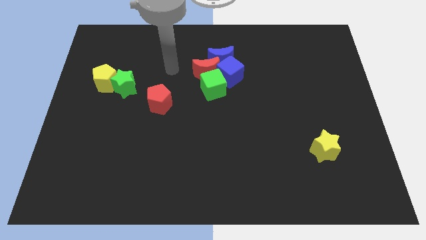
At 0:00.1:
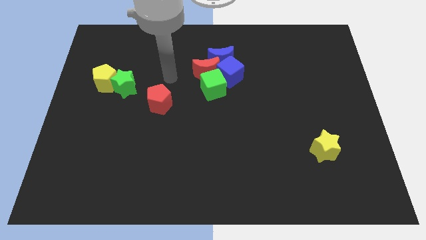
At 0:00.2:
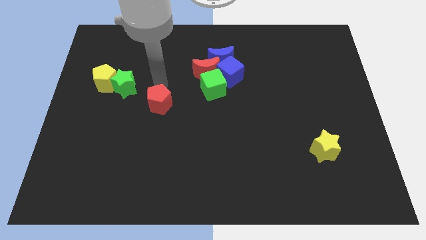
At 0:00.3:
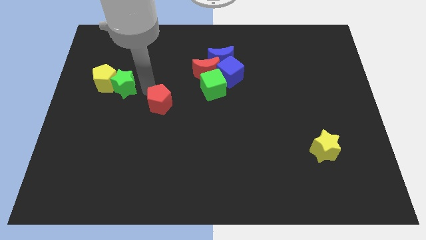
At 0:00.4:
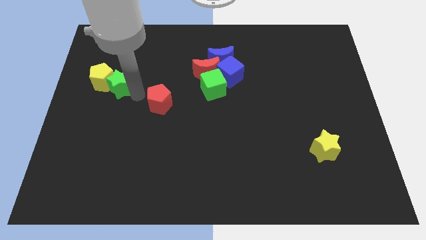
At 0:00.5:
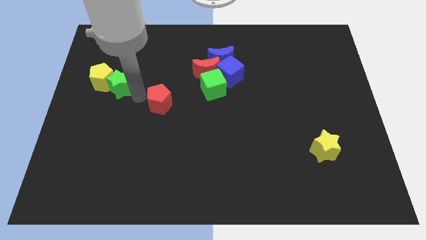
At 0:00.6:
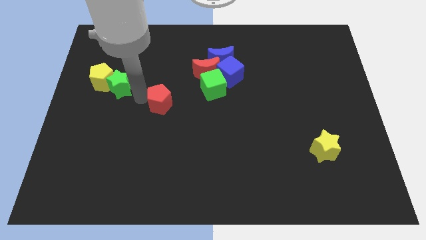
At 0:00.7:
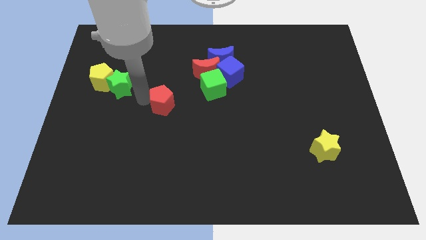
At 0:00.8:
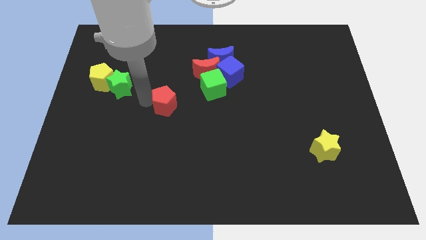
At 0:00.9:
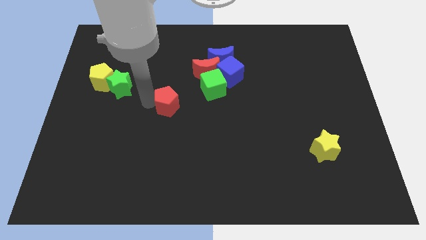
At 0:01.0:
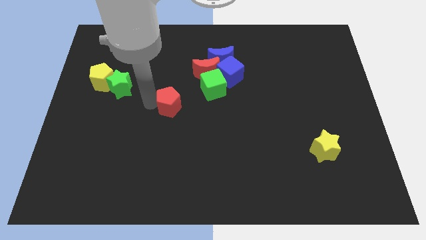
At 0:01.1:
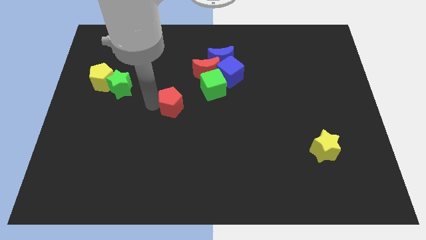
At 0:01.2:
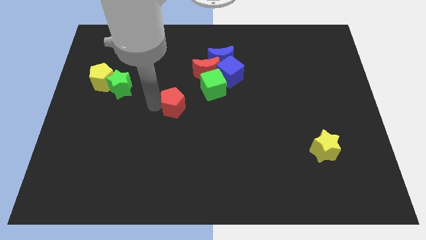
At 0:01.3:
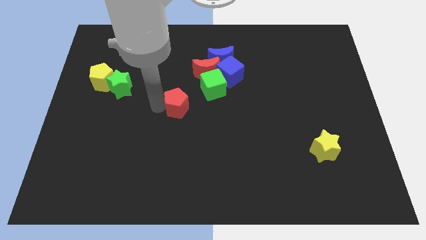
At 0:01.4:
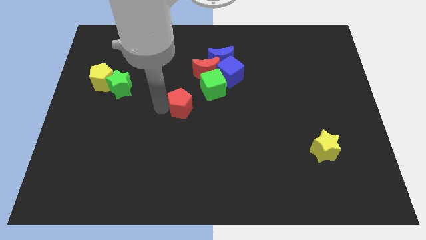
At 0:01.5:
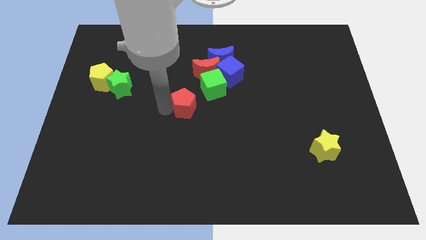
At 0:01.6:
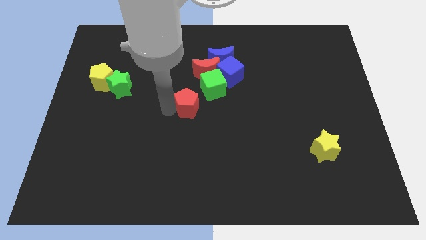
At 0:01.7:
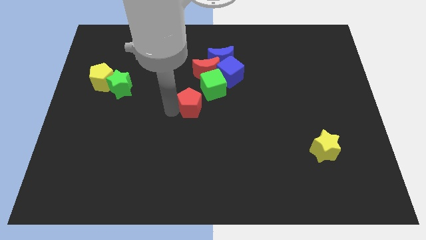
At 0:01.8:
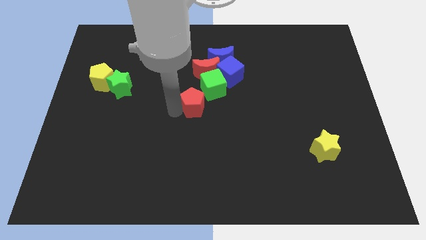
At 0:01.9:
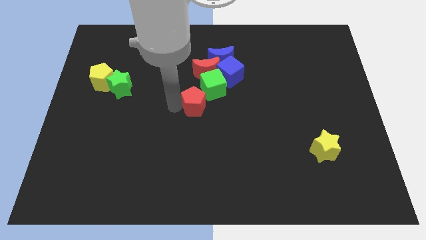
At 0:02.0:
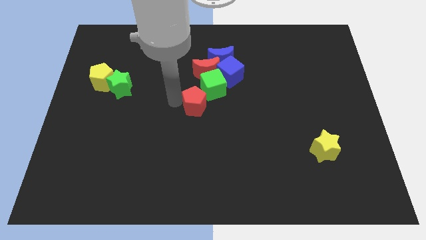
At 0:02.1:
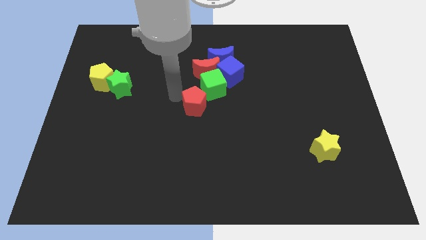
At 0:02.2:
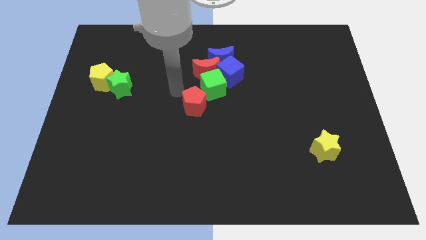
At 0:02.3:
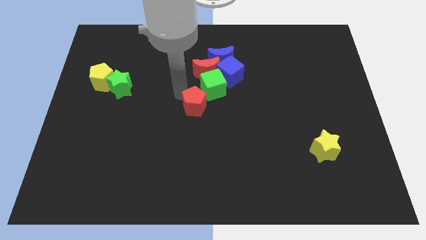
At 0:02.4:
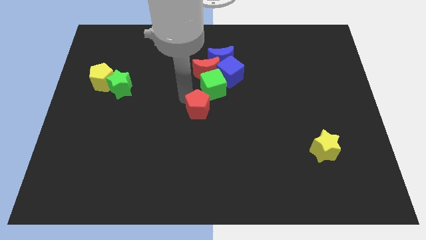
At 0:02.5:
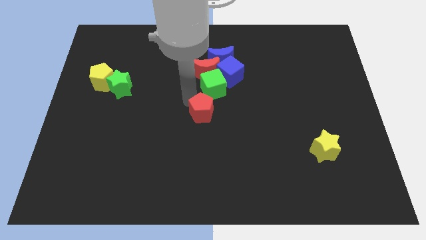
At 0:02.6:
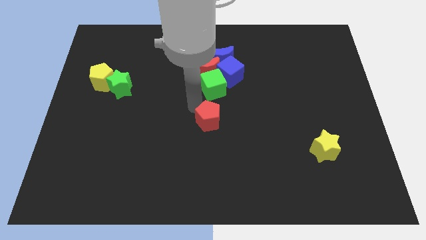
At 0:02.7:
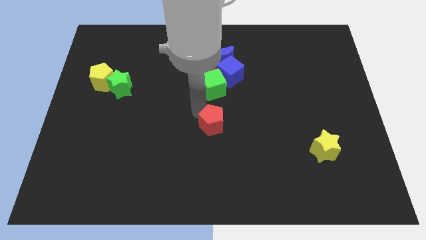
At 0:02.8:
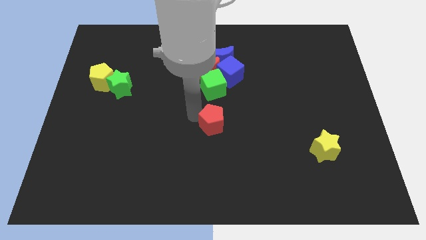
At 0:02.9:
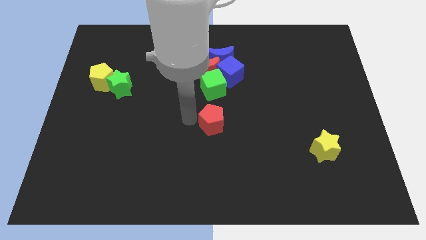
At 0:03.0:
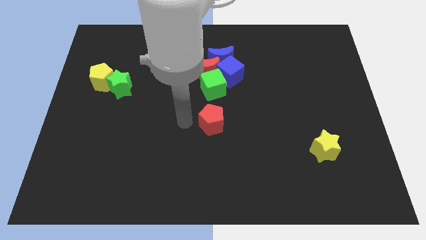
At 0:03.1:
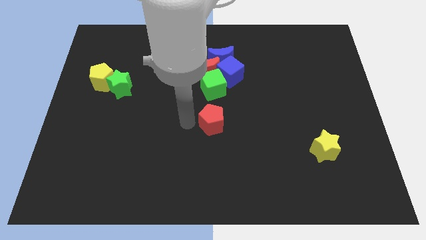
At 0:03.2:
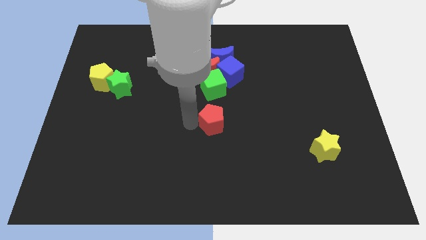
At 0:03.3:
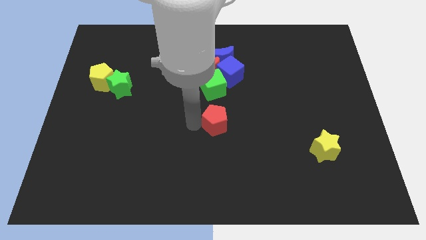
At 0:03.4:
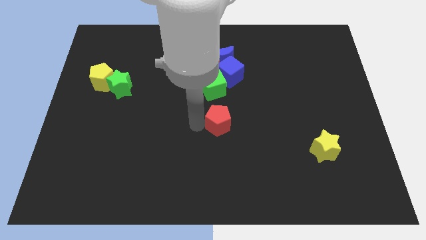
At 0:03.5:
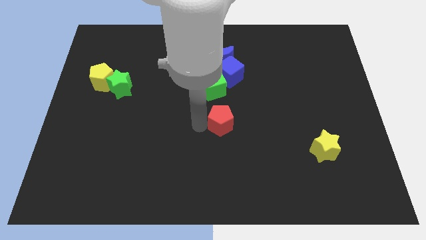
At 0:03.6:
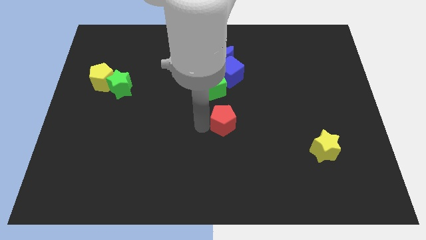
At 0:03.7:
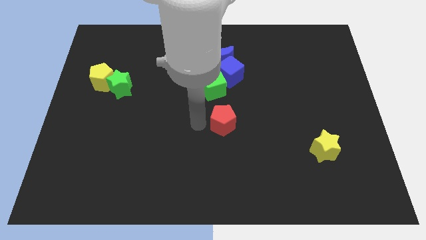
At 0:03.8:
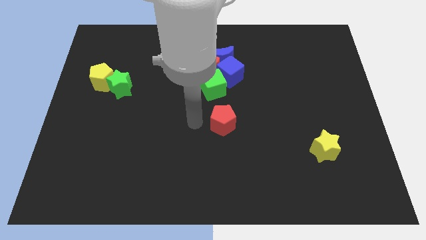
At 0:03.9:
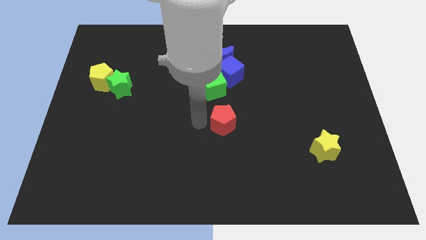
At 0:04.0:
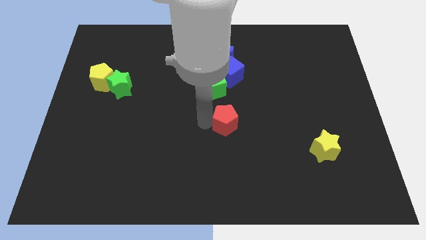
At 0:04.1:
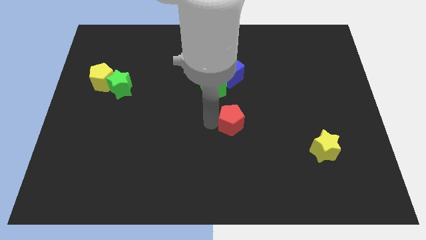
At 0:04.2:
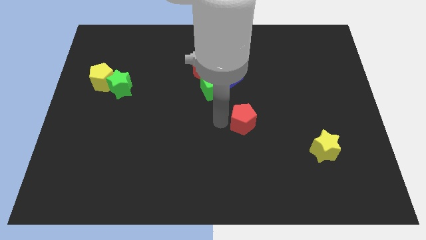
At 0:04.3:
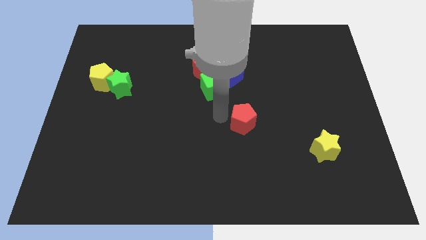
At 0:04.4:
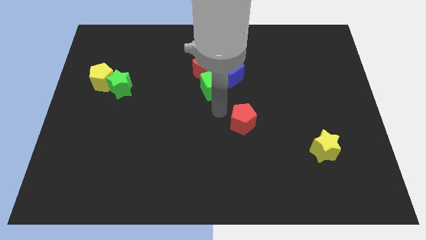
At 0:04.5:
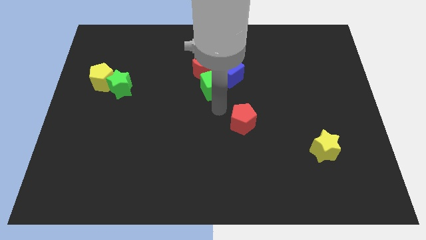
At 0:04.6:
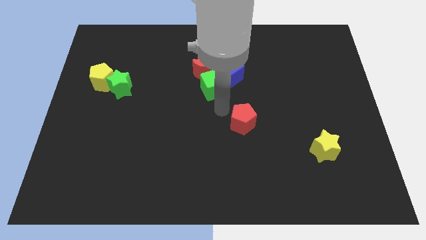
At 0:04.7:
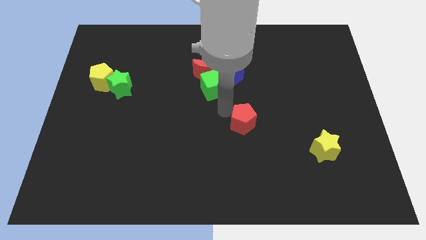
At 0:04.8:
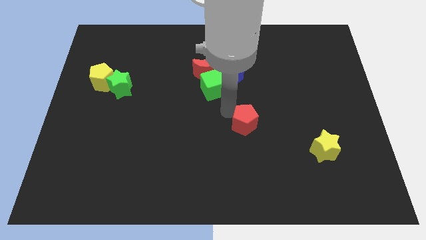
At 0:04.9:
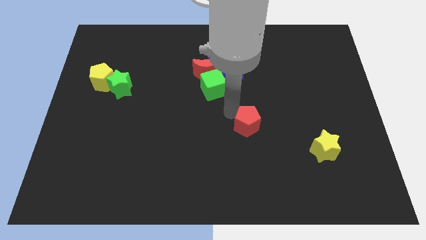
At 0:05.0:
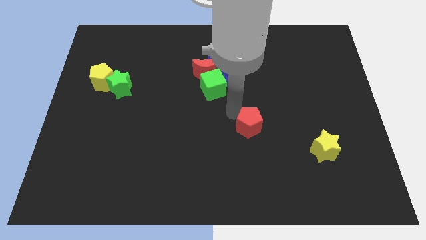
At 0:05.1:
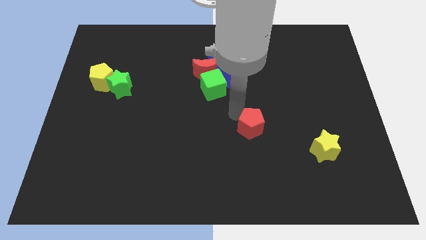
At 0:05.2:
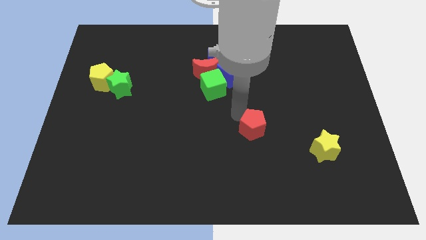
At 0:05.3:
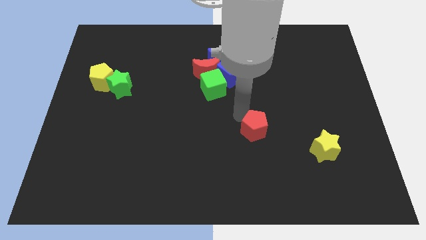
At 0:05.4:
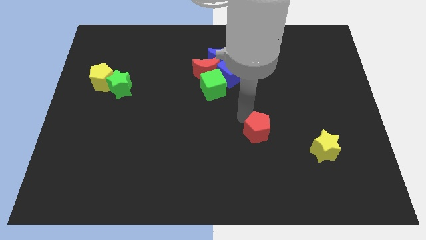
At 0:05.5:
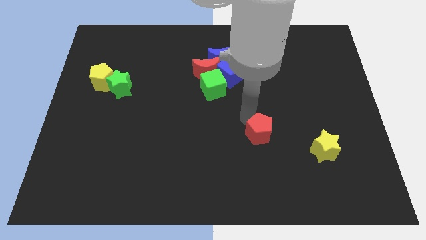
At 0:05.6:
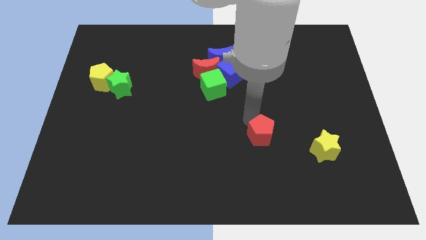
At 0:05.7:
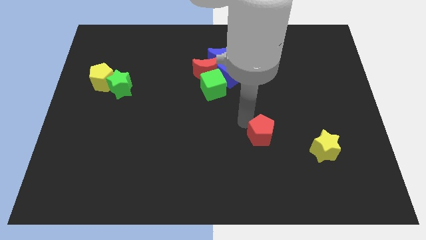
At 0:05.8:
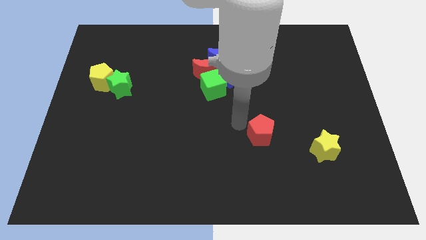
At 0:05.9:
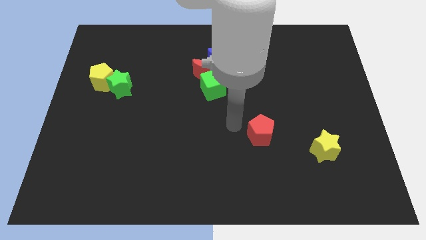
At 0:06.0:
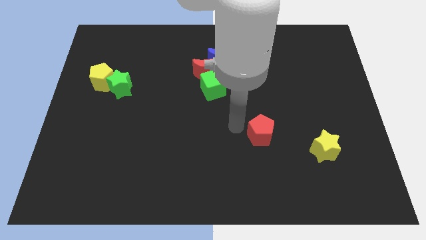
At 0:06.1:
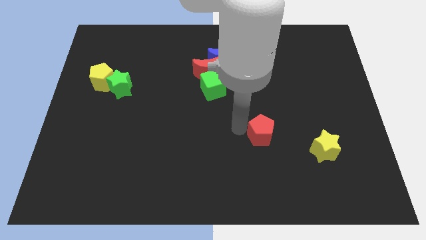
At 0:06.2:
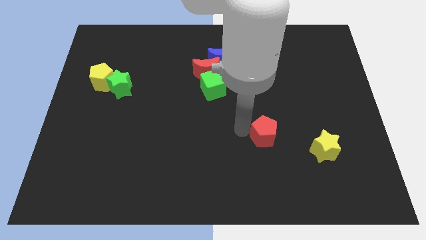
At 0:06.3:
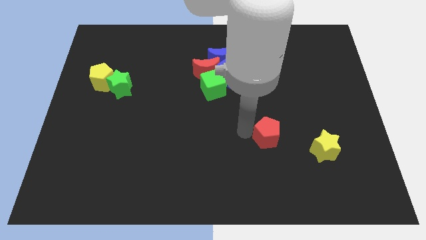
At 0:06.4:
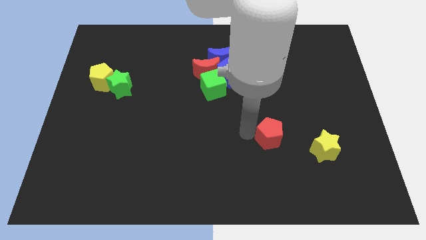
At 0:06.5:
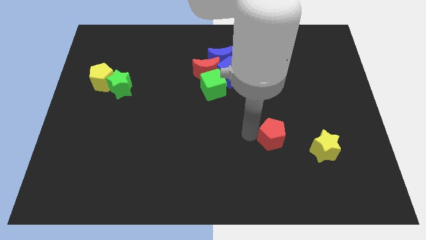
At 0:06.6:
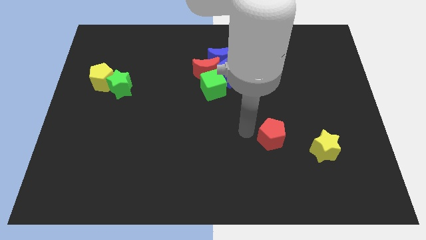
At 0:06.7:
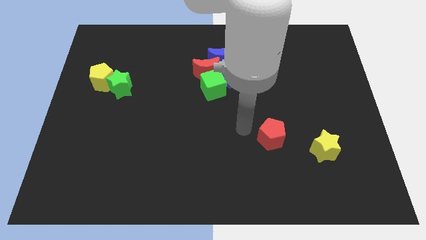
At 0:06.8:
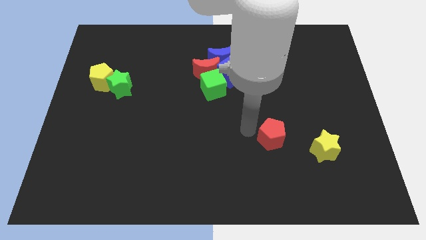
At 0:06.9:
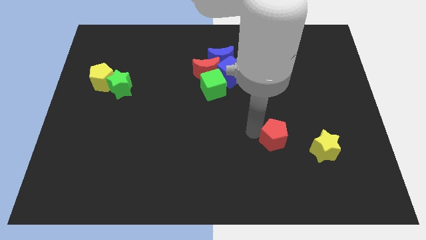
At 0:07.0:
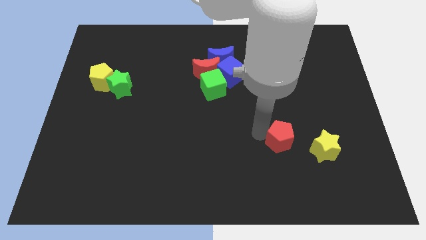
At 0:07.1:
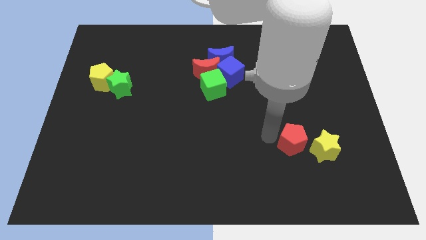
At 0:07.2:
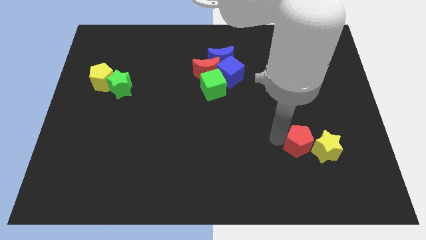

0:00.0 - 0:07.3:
put the red pentagon towards the yellow star
